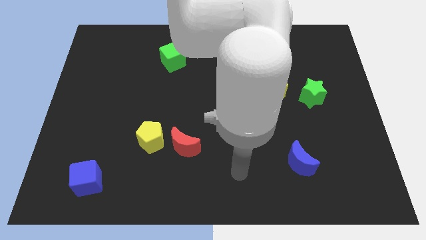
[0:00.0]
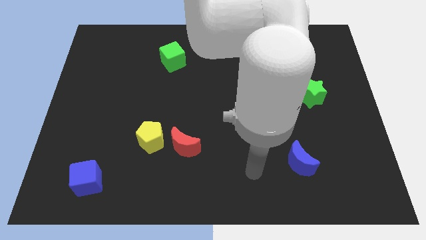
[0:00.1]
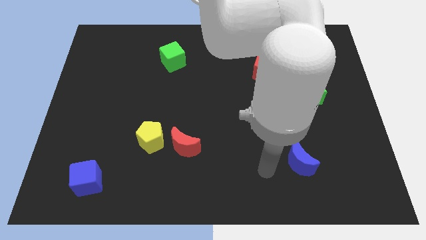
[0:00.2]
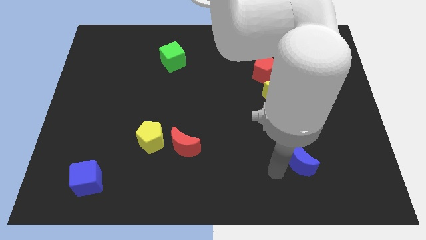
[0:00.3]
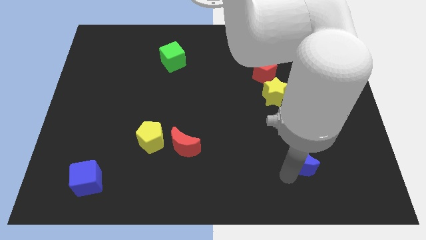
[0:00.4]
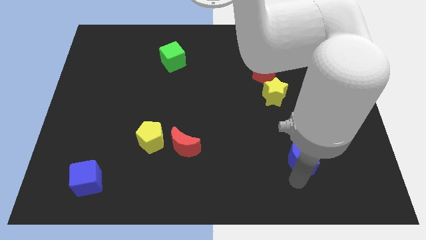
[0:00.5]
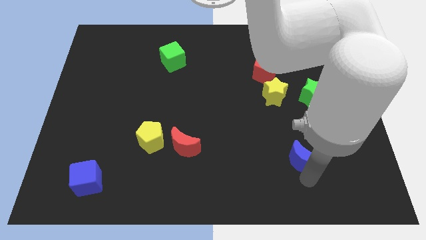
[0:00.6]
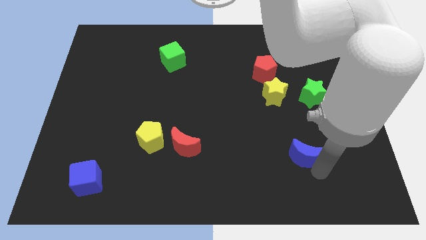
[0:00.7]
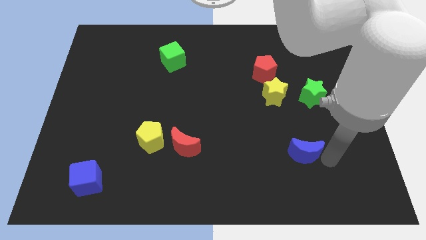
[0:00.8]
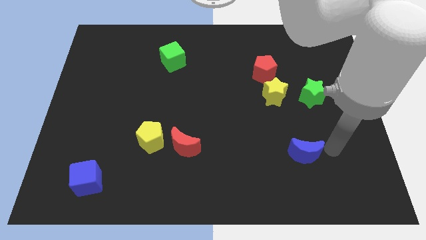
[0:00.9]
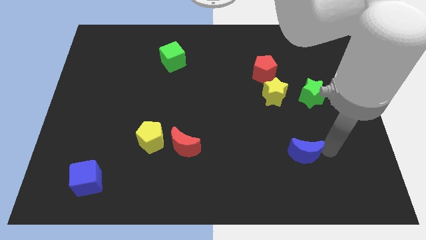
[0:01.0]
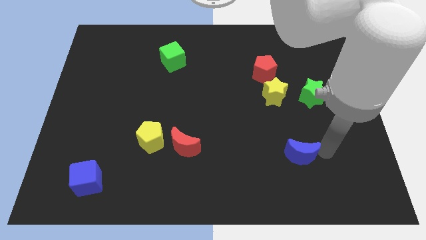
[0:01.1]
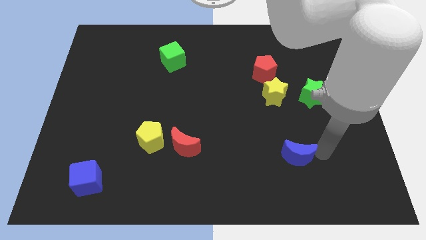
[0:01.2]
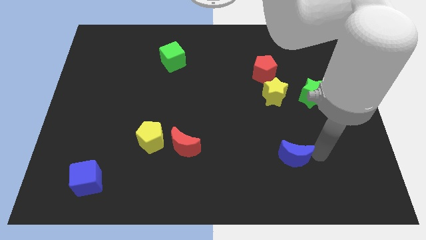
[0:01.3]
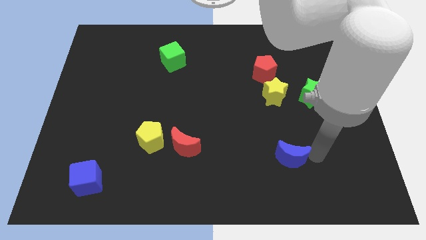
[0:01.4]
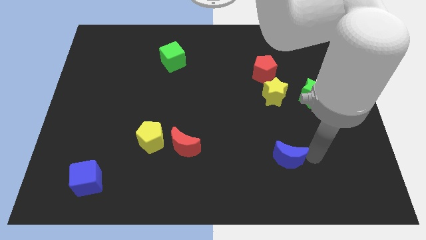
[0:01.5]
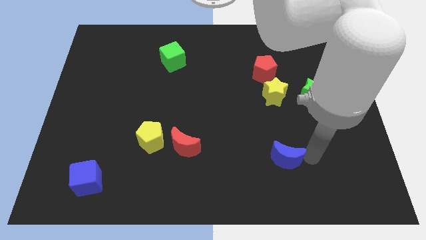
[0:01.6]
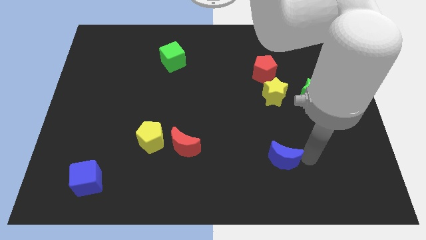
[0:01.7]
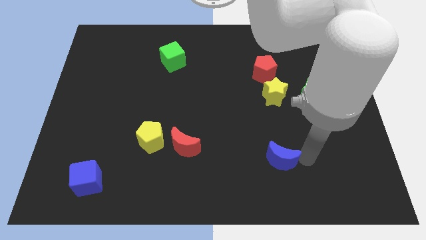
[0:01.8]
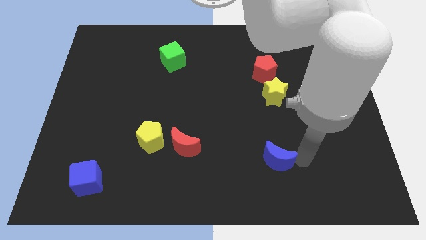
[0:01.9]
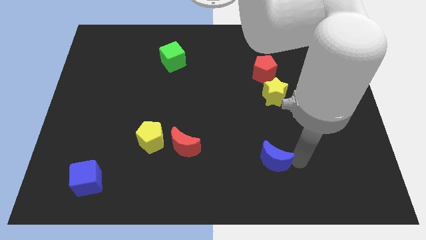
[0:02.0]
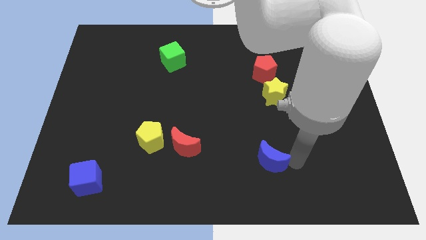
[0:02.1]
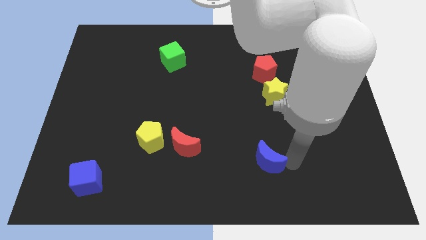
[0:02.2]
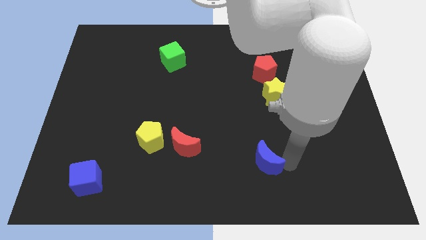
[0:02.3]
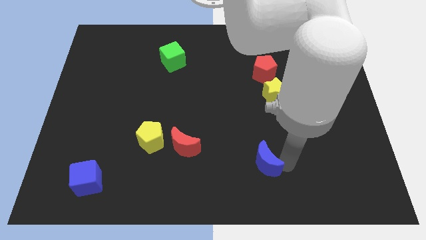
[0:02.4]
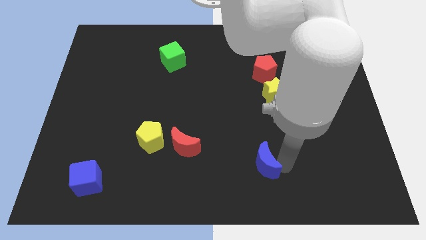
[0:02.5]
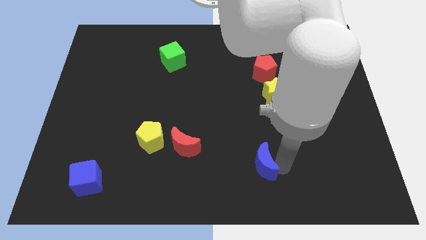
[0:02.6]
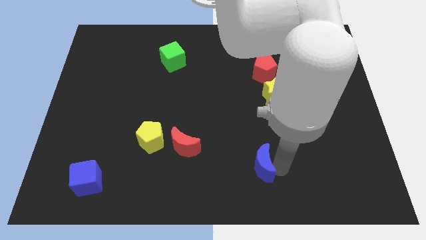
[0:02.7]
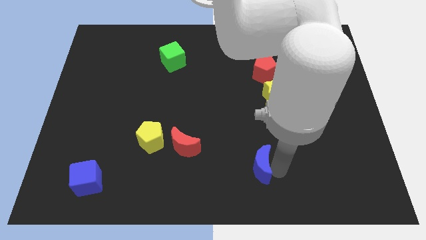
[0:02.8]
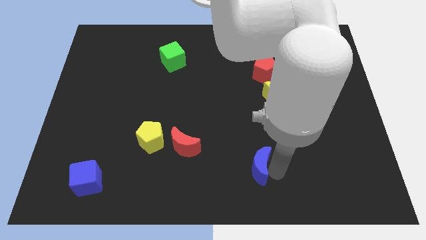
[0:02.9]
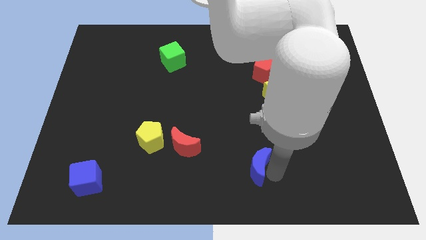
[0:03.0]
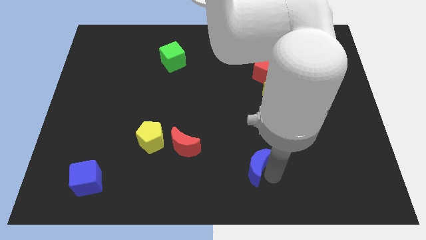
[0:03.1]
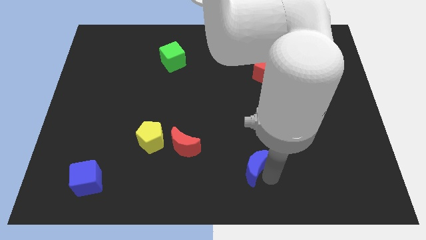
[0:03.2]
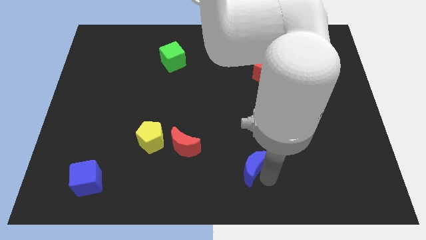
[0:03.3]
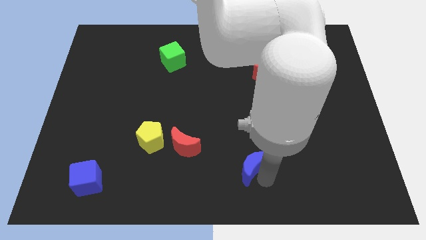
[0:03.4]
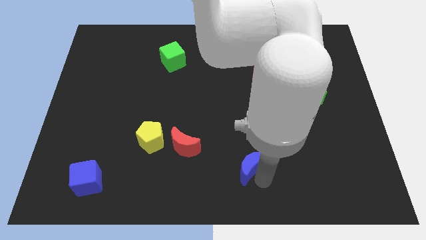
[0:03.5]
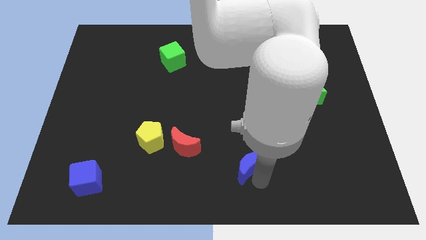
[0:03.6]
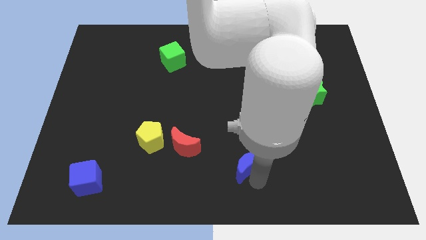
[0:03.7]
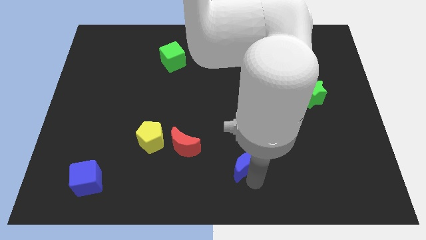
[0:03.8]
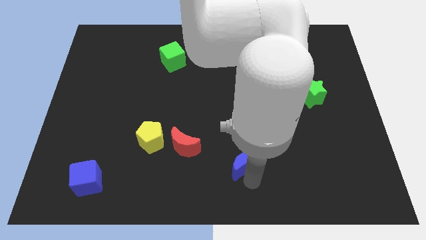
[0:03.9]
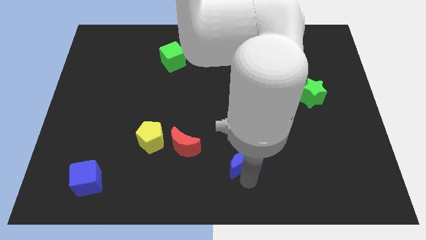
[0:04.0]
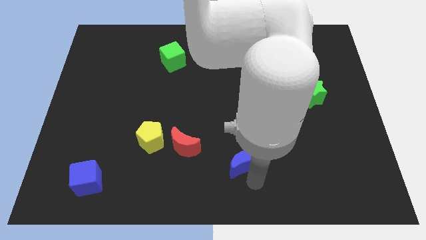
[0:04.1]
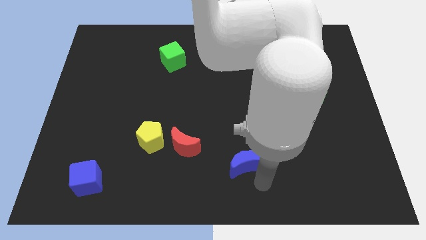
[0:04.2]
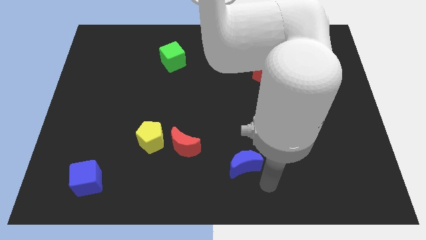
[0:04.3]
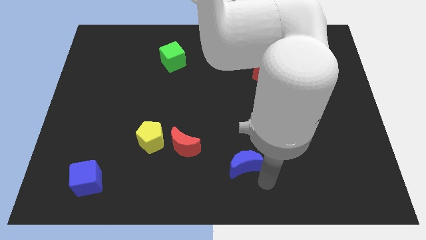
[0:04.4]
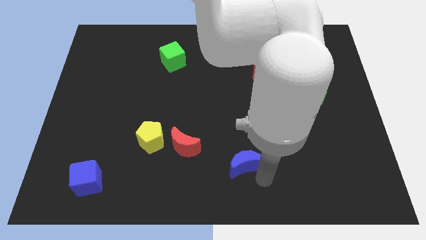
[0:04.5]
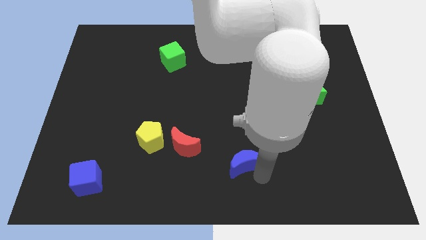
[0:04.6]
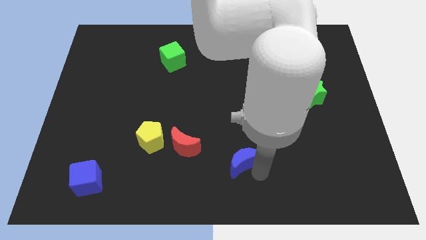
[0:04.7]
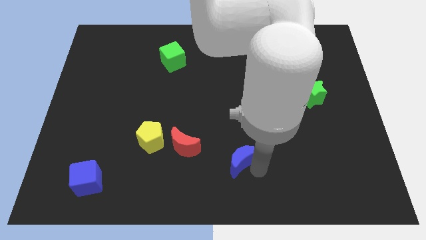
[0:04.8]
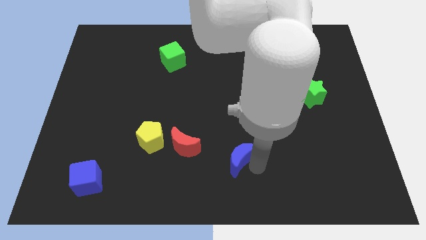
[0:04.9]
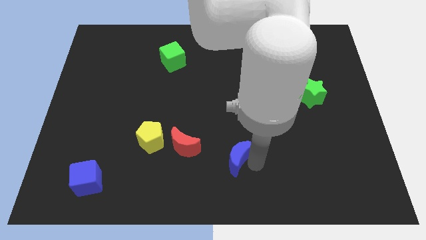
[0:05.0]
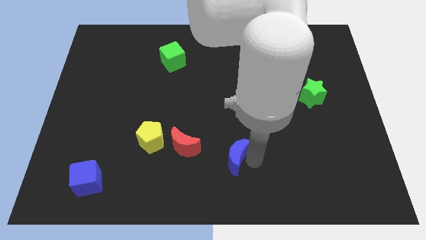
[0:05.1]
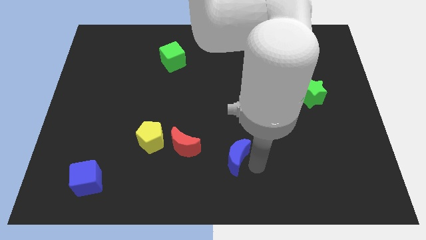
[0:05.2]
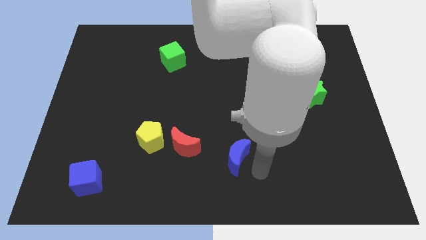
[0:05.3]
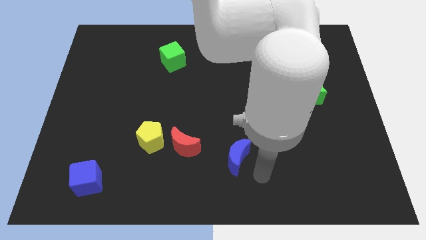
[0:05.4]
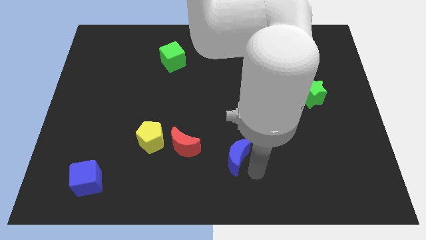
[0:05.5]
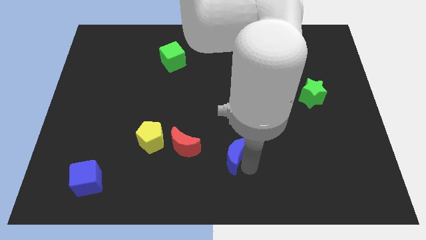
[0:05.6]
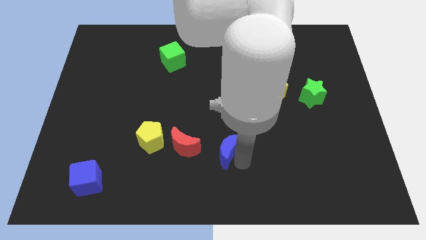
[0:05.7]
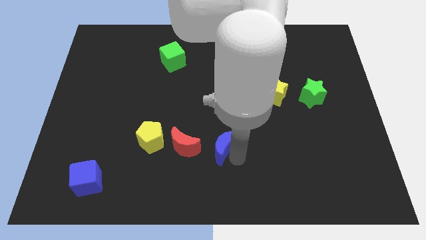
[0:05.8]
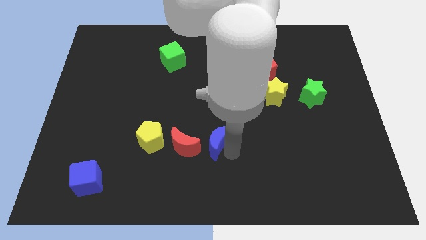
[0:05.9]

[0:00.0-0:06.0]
push the blue moon right of the yellow pentagon

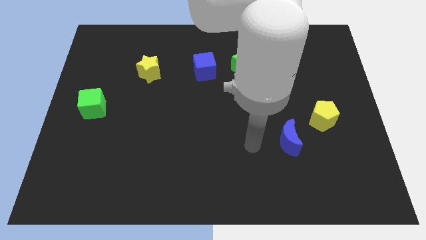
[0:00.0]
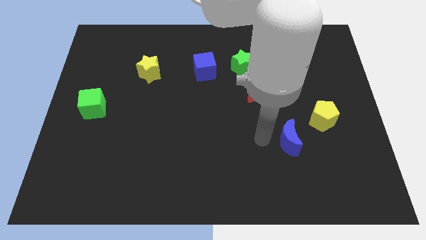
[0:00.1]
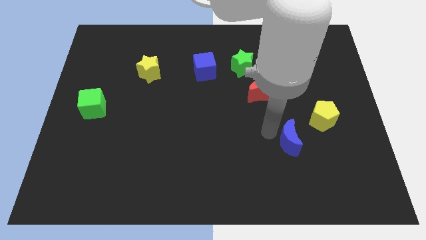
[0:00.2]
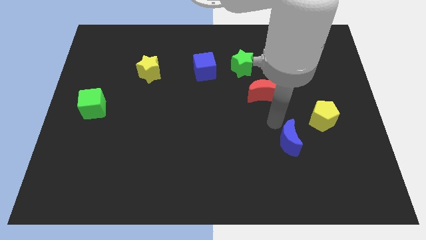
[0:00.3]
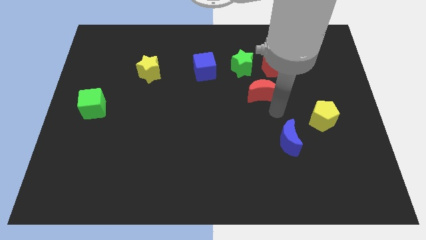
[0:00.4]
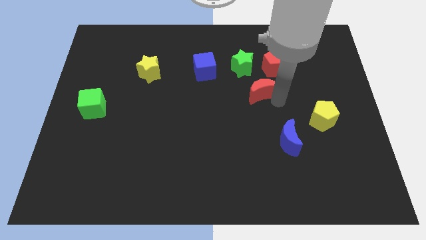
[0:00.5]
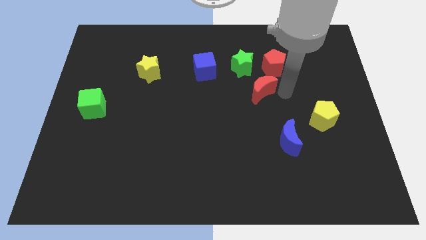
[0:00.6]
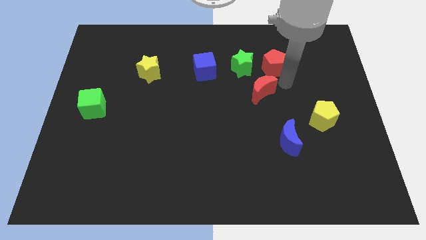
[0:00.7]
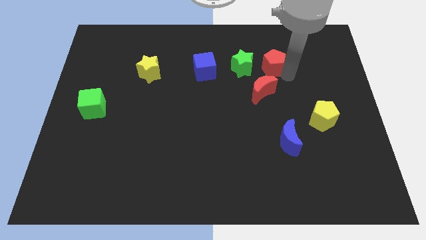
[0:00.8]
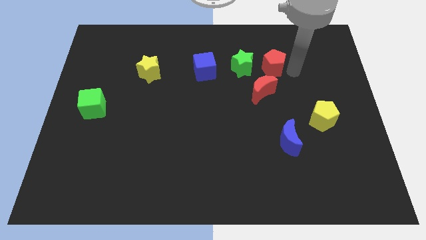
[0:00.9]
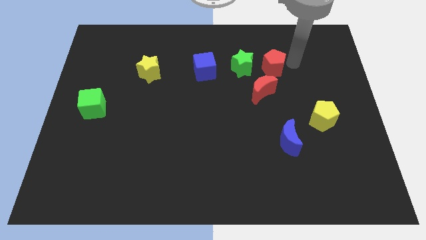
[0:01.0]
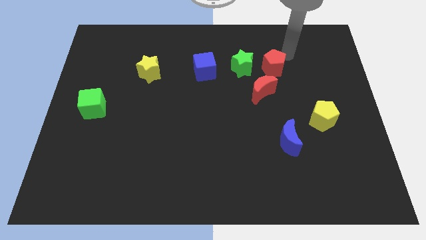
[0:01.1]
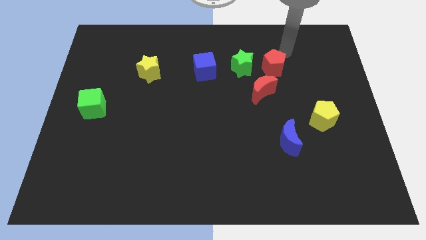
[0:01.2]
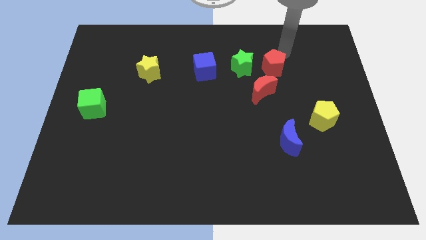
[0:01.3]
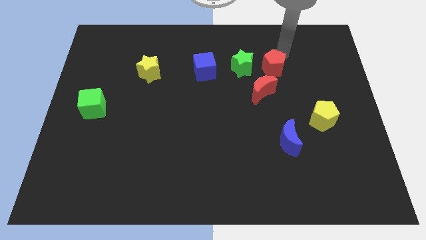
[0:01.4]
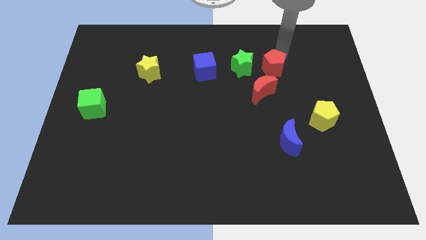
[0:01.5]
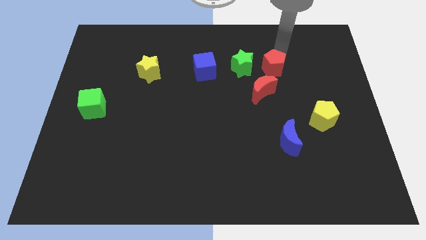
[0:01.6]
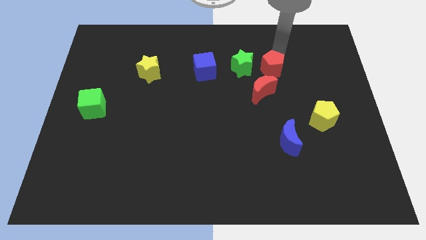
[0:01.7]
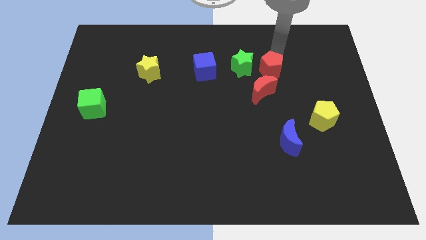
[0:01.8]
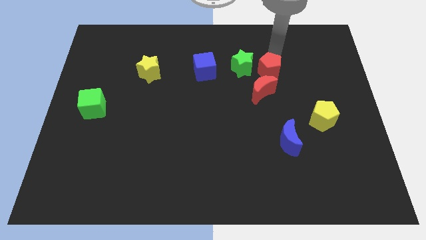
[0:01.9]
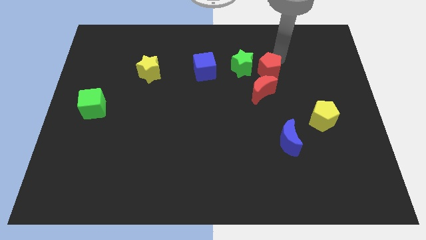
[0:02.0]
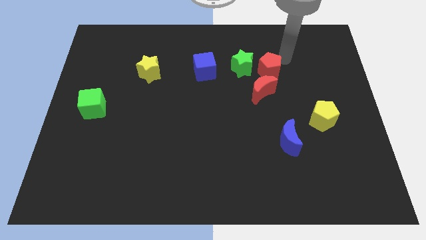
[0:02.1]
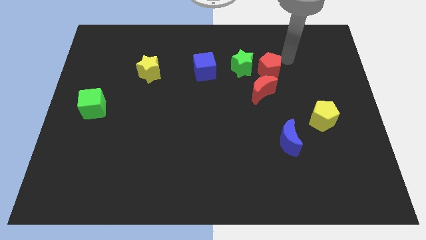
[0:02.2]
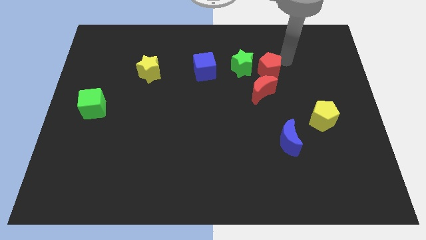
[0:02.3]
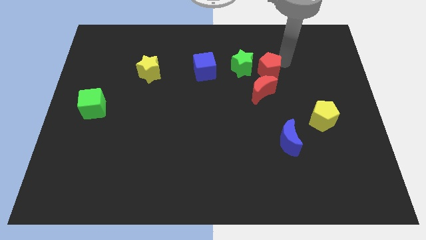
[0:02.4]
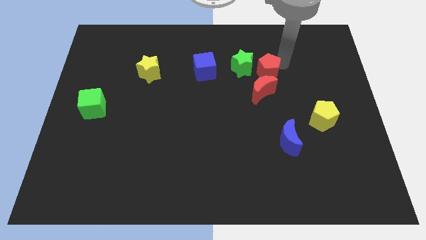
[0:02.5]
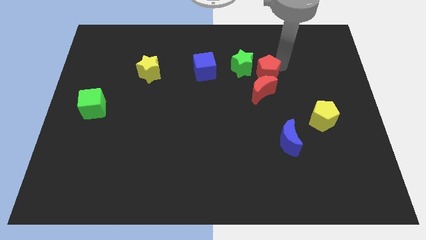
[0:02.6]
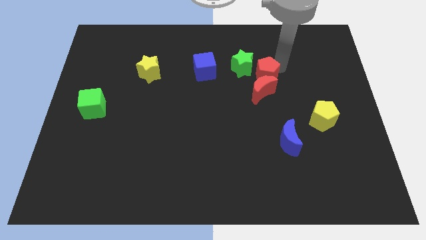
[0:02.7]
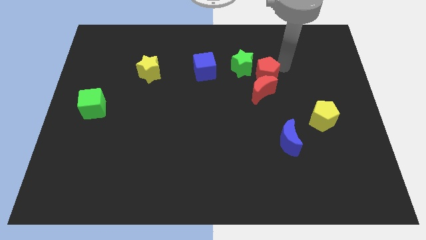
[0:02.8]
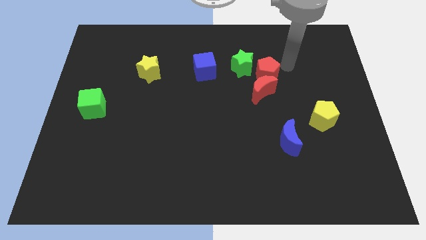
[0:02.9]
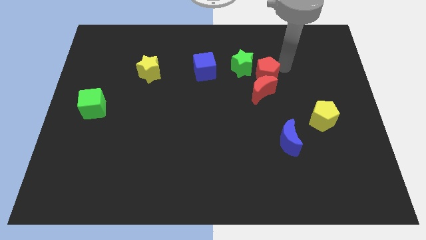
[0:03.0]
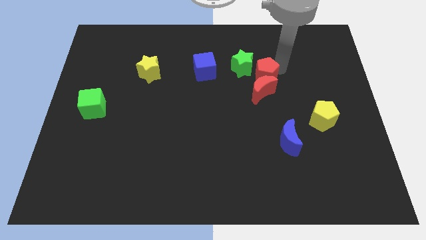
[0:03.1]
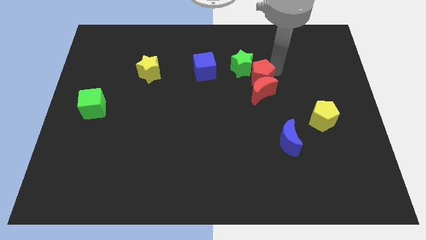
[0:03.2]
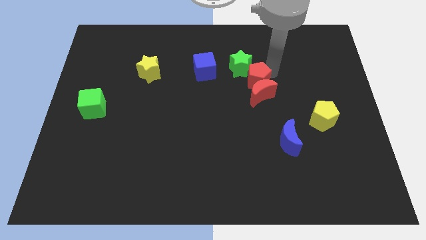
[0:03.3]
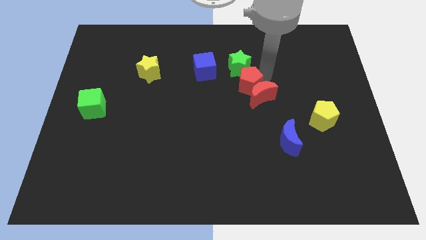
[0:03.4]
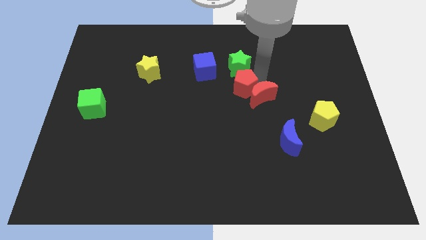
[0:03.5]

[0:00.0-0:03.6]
slide the red pentagon to the bottom right side of the blue cube
